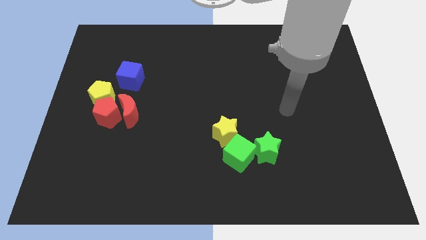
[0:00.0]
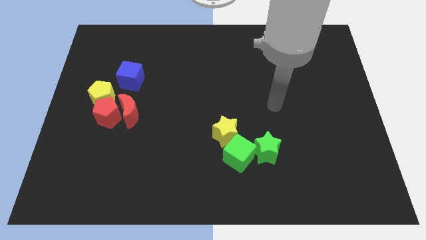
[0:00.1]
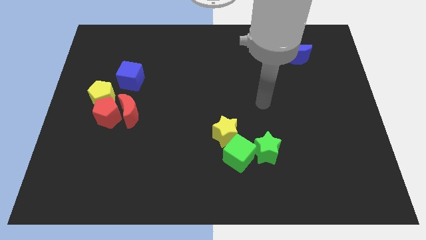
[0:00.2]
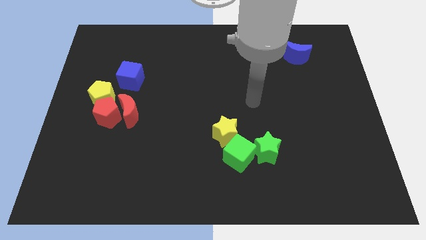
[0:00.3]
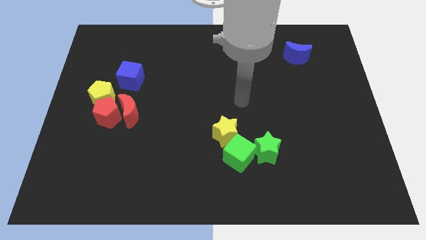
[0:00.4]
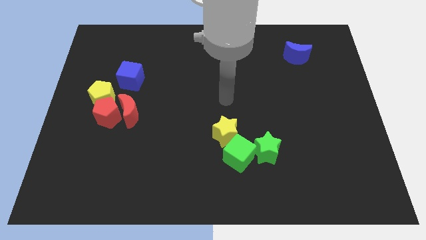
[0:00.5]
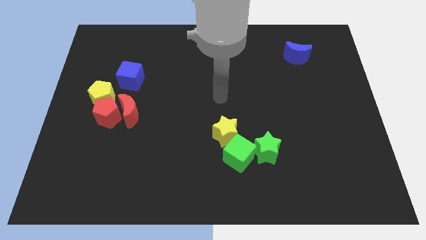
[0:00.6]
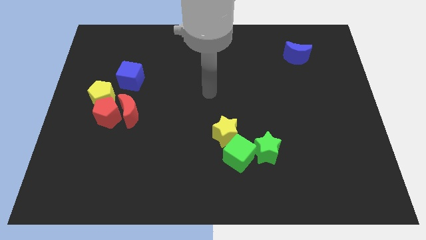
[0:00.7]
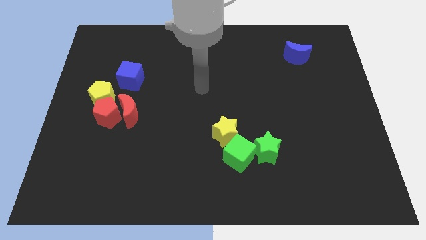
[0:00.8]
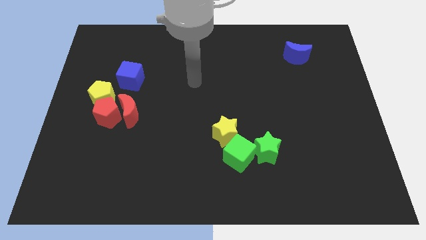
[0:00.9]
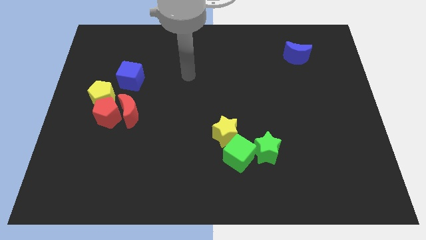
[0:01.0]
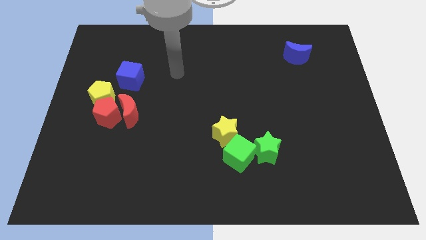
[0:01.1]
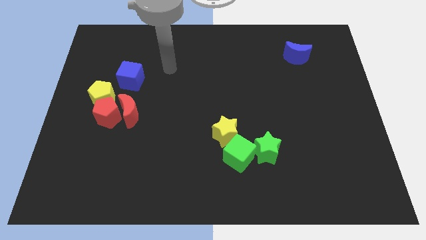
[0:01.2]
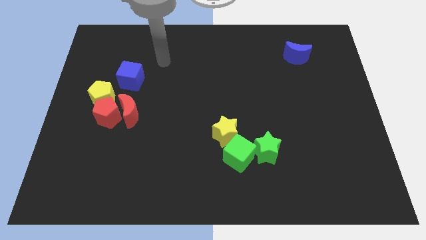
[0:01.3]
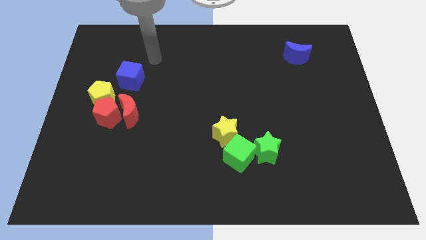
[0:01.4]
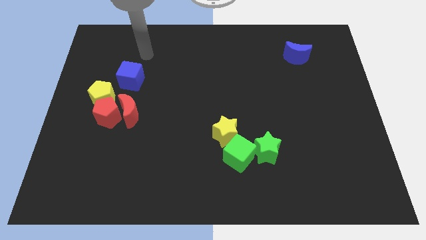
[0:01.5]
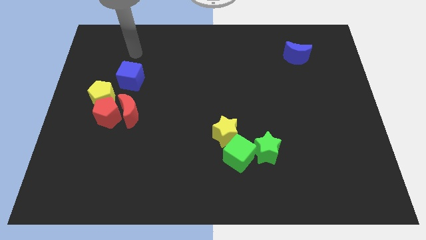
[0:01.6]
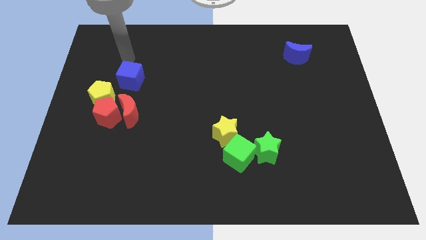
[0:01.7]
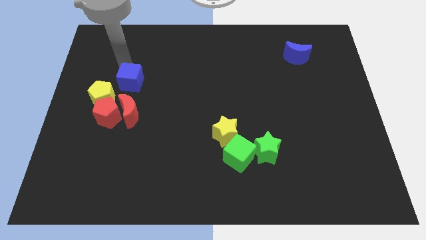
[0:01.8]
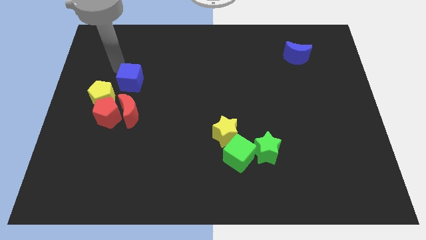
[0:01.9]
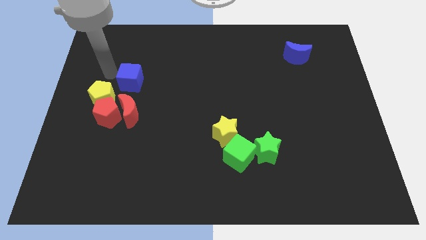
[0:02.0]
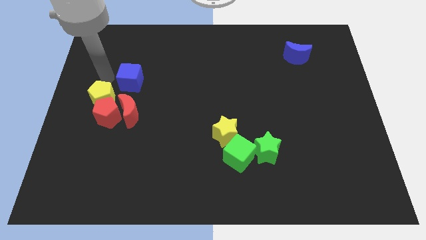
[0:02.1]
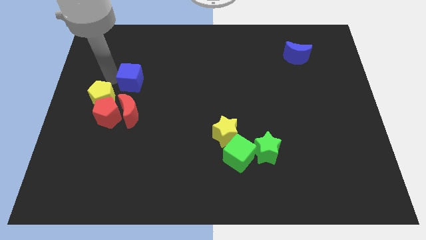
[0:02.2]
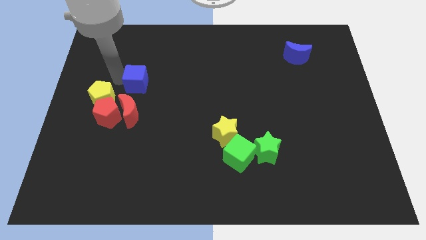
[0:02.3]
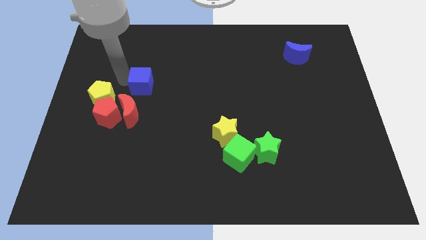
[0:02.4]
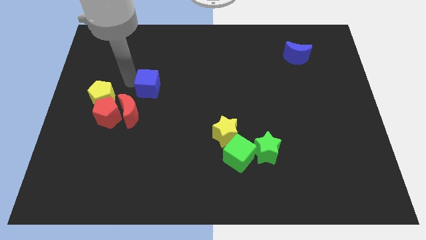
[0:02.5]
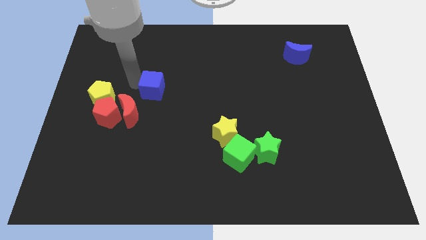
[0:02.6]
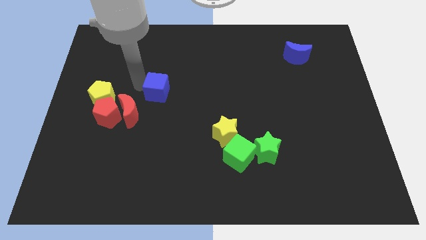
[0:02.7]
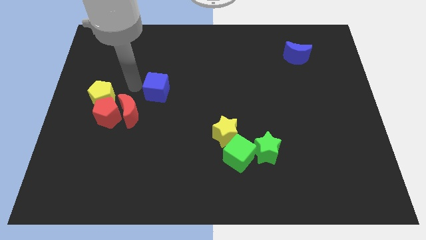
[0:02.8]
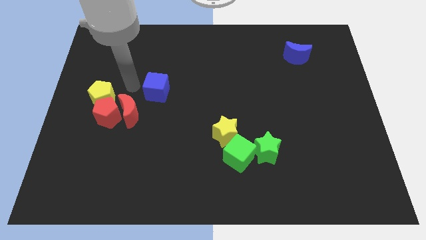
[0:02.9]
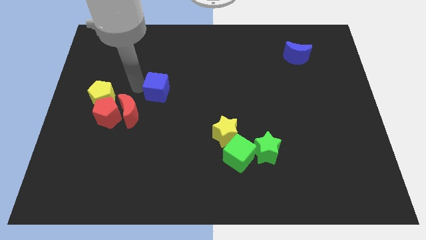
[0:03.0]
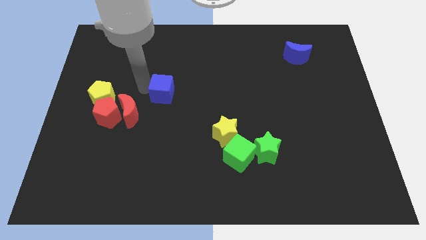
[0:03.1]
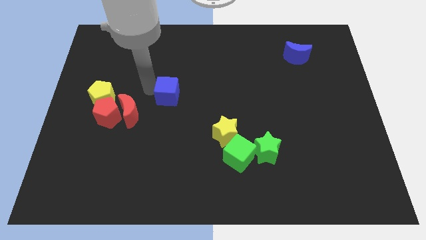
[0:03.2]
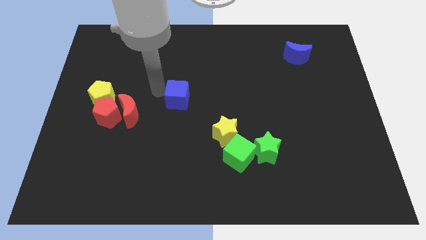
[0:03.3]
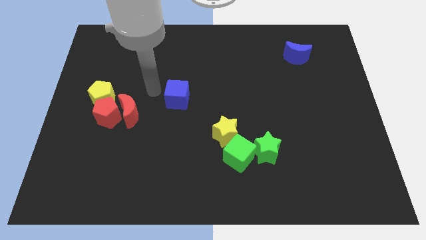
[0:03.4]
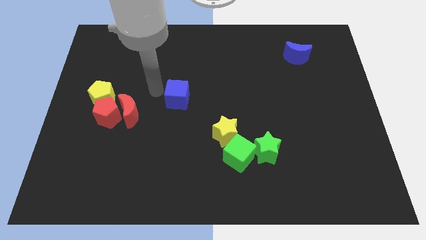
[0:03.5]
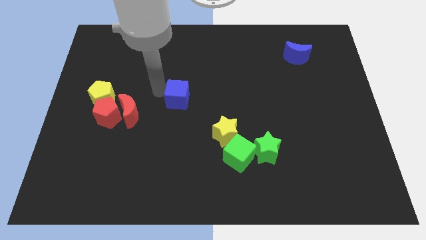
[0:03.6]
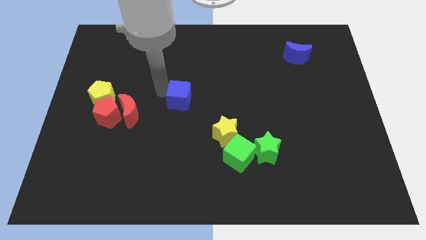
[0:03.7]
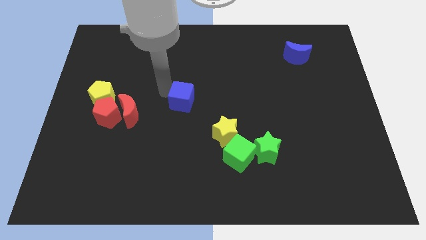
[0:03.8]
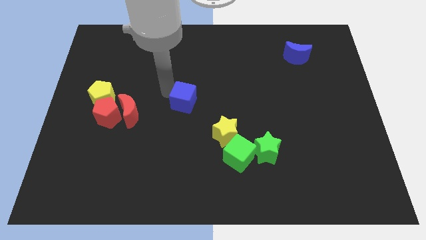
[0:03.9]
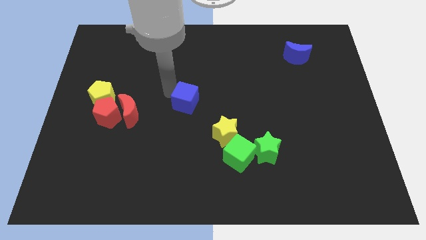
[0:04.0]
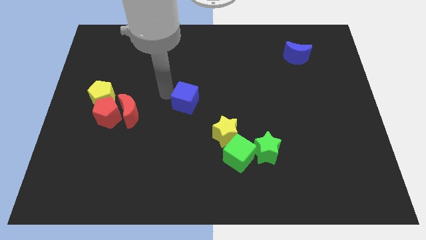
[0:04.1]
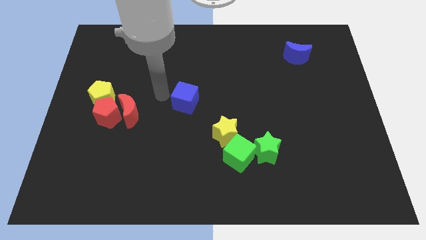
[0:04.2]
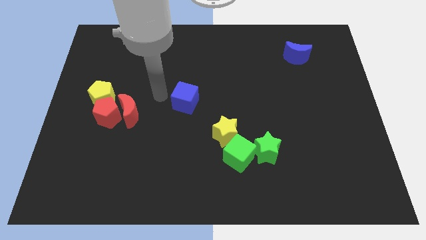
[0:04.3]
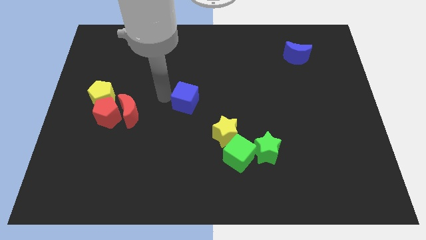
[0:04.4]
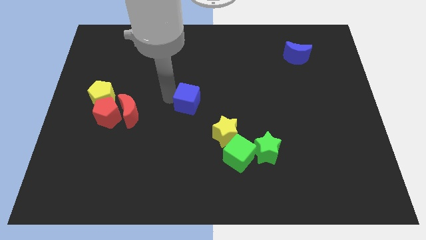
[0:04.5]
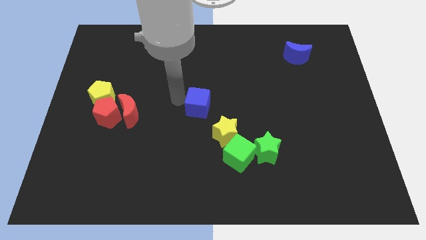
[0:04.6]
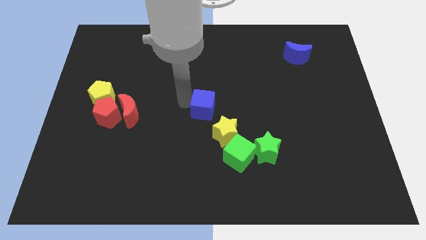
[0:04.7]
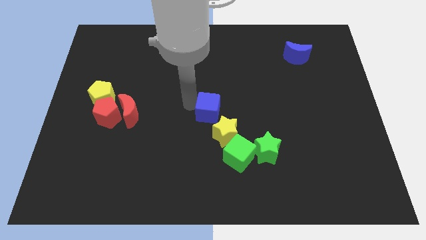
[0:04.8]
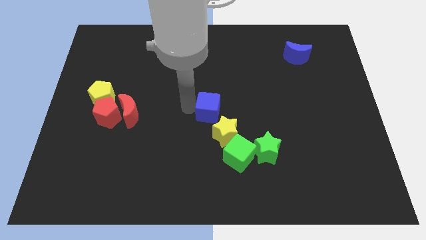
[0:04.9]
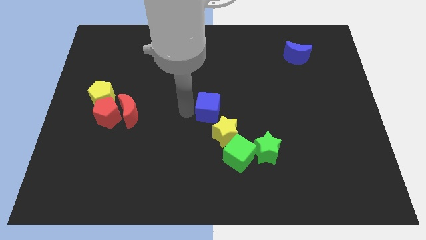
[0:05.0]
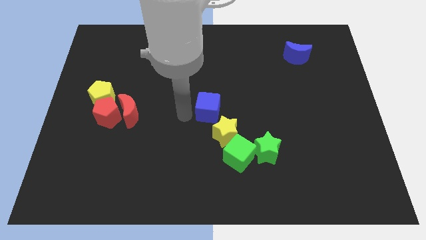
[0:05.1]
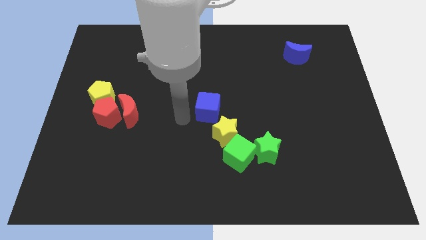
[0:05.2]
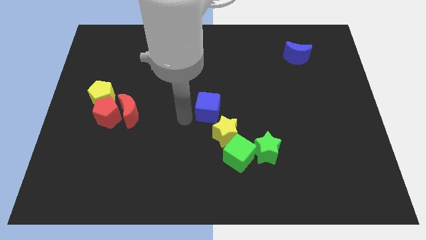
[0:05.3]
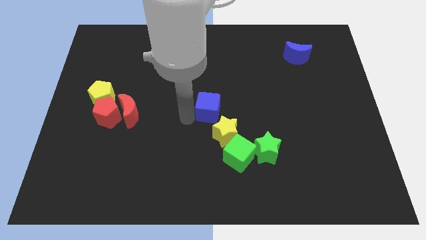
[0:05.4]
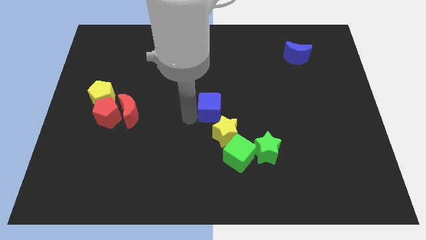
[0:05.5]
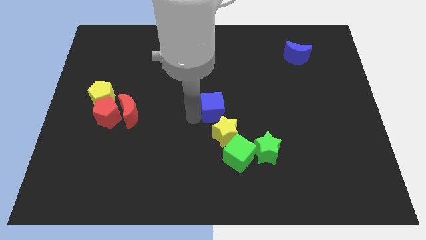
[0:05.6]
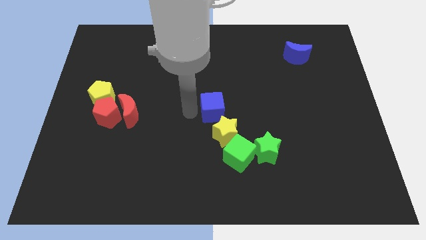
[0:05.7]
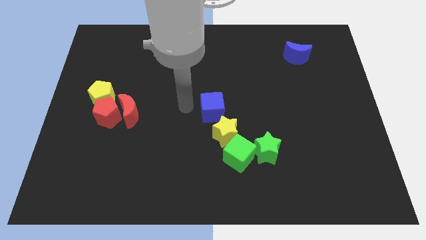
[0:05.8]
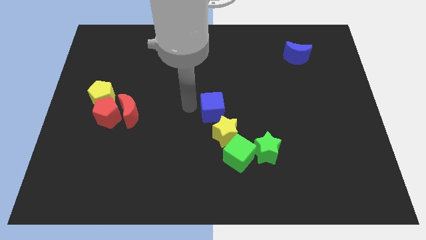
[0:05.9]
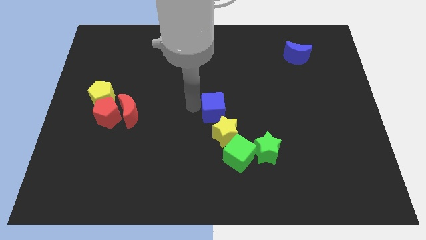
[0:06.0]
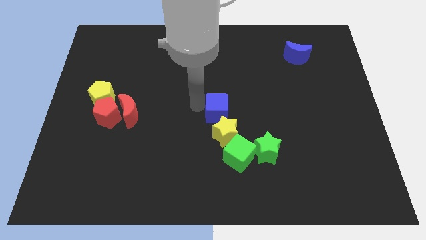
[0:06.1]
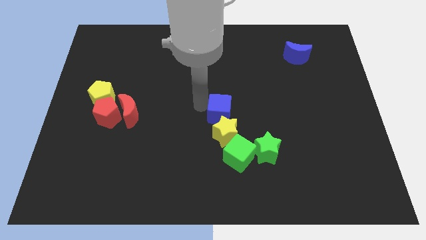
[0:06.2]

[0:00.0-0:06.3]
push the blue cube to the top right side of the yellow star

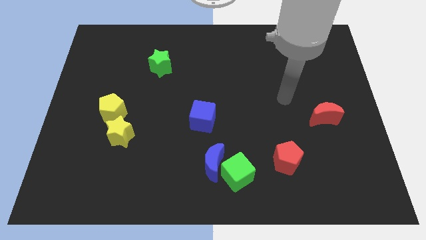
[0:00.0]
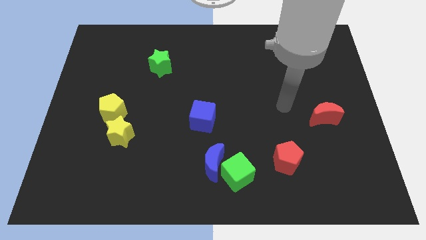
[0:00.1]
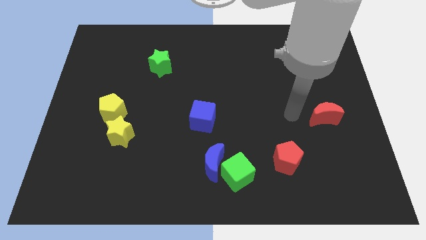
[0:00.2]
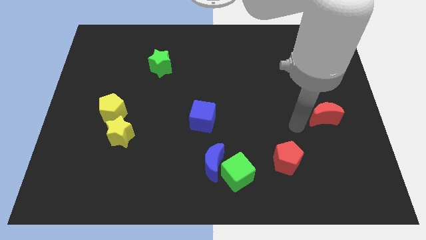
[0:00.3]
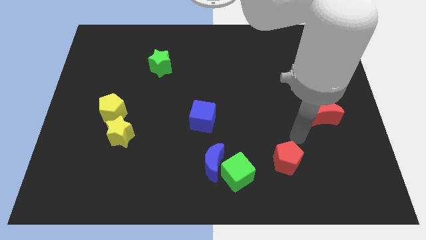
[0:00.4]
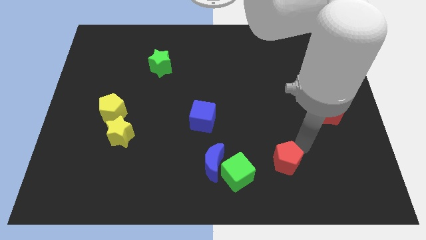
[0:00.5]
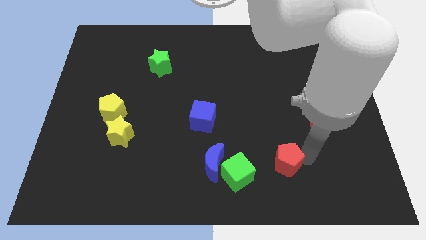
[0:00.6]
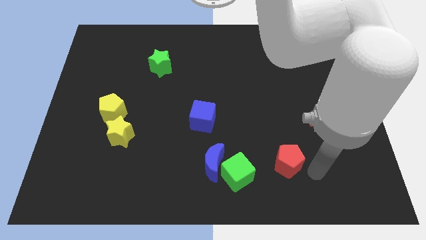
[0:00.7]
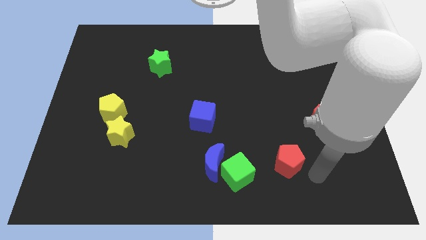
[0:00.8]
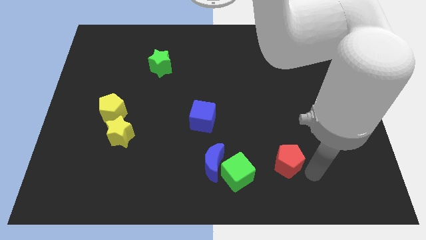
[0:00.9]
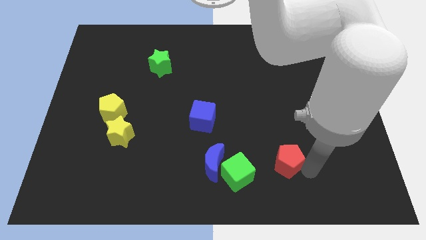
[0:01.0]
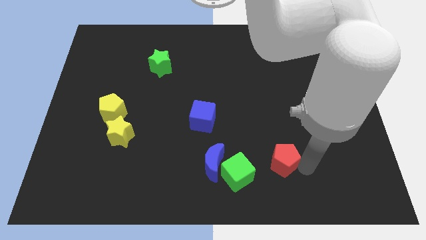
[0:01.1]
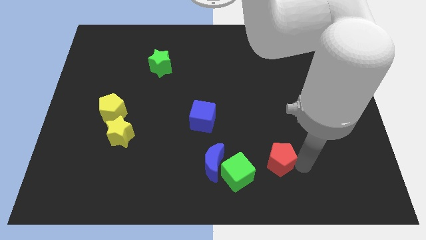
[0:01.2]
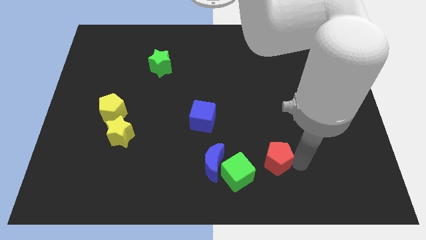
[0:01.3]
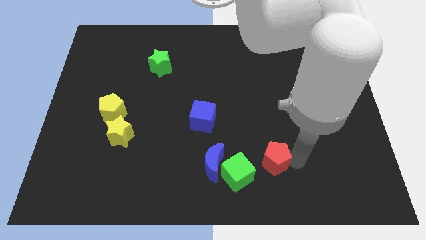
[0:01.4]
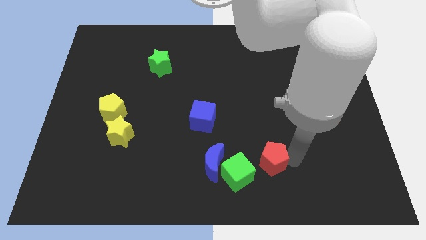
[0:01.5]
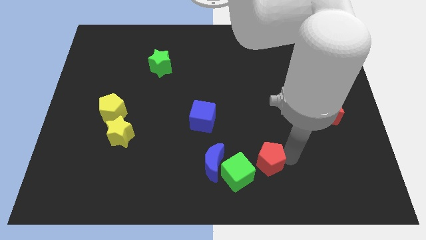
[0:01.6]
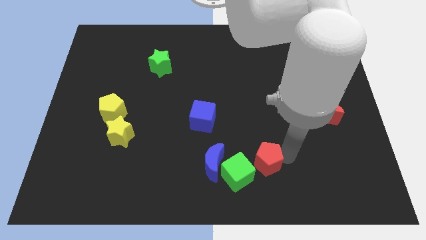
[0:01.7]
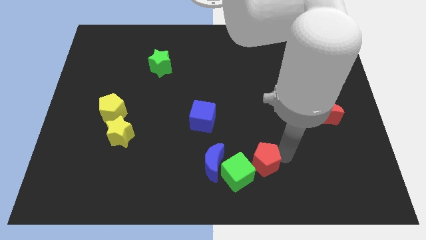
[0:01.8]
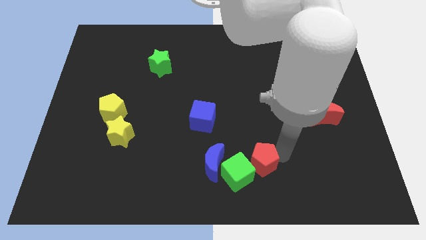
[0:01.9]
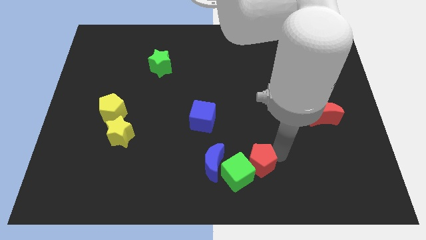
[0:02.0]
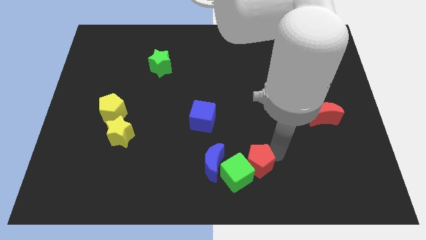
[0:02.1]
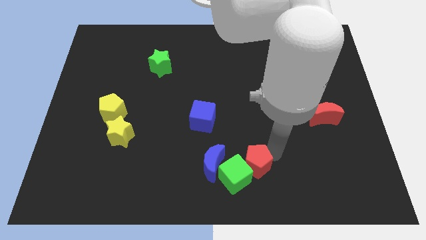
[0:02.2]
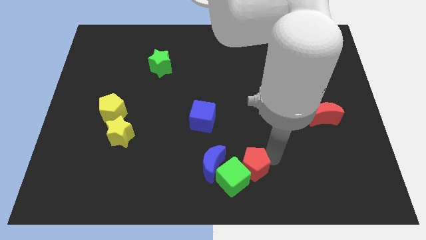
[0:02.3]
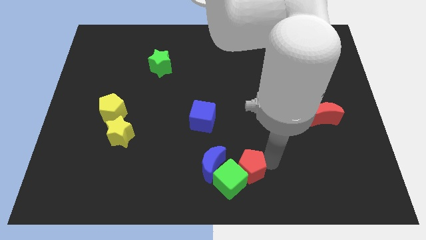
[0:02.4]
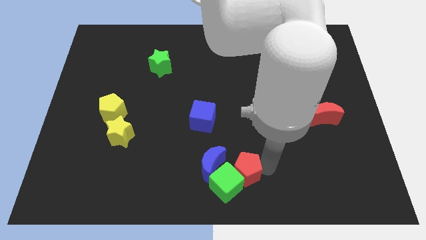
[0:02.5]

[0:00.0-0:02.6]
put the red pentagon to the top side of the green cube
